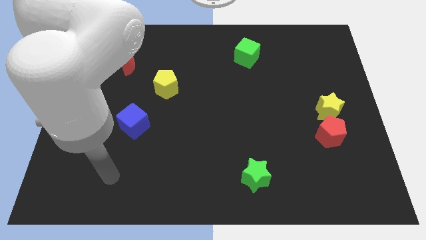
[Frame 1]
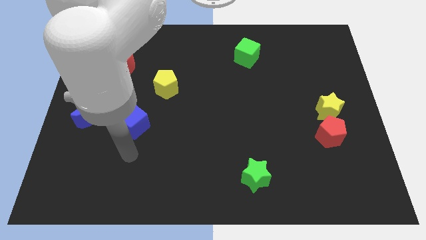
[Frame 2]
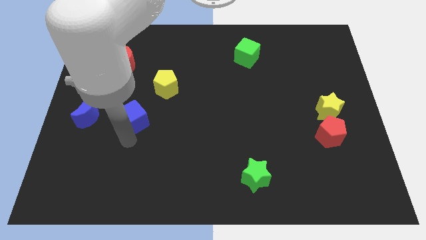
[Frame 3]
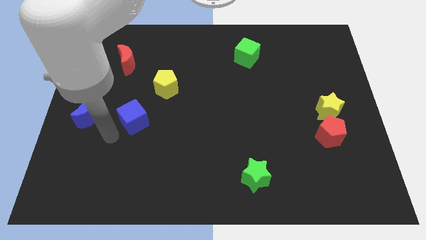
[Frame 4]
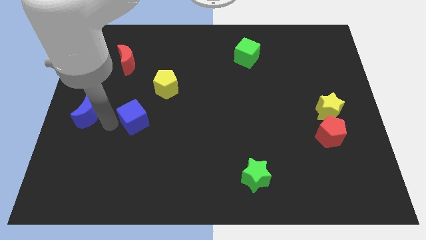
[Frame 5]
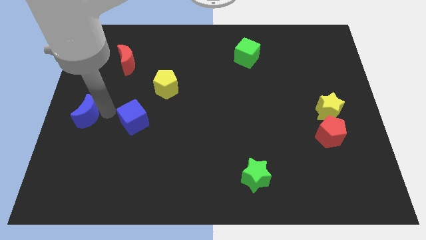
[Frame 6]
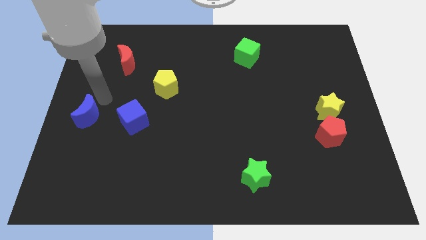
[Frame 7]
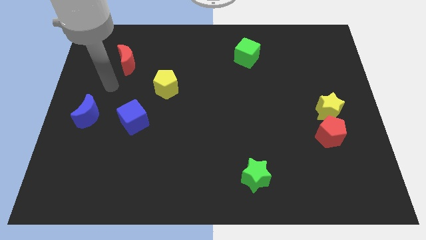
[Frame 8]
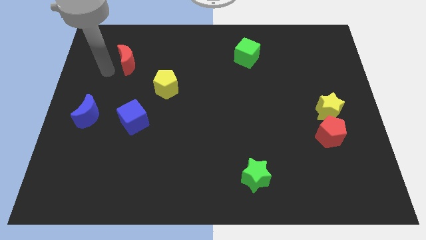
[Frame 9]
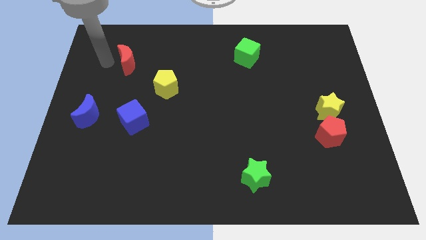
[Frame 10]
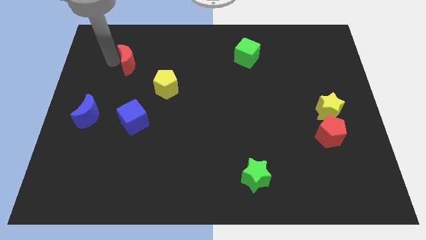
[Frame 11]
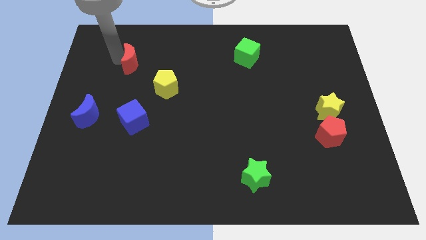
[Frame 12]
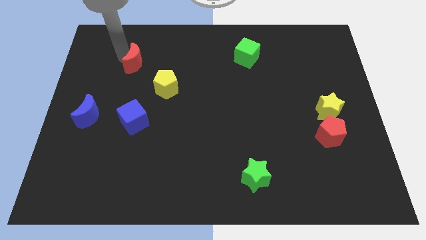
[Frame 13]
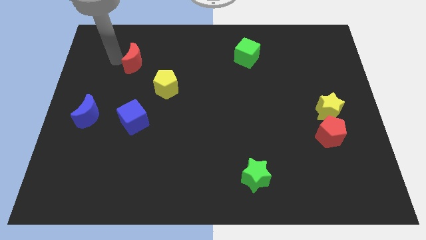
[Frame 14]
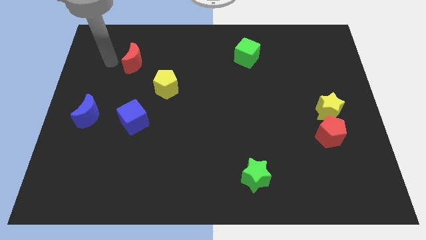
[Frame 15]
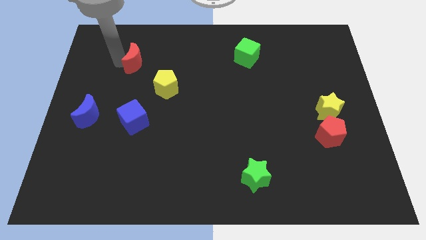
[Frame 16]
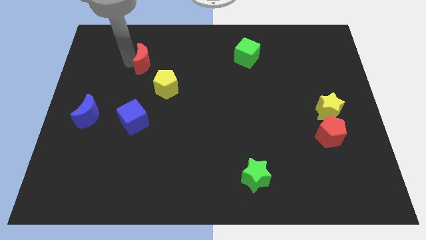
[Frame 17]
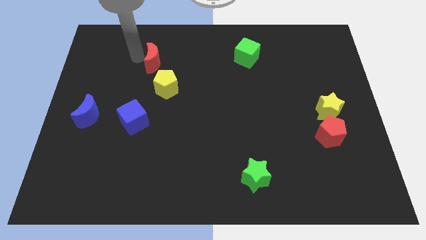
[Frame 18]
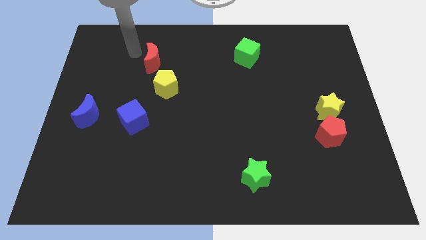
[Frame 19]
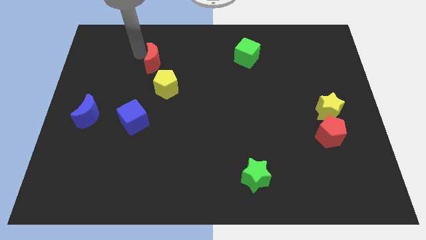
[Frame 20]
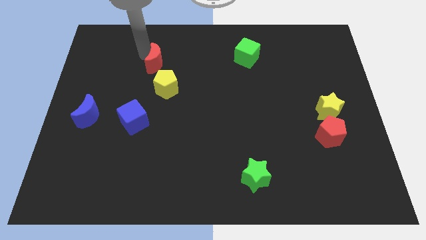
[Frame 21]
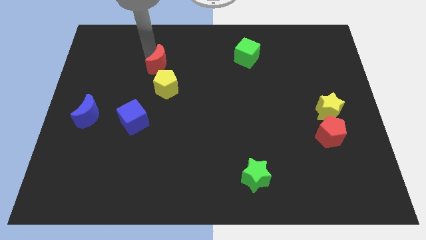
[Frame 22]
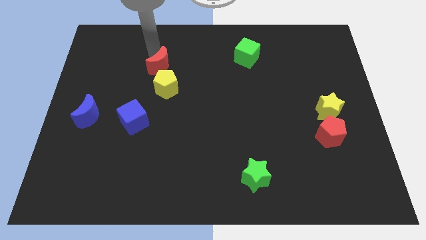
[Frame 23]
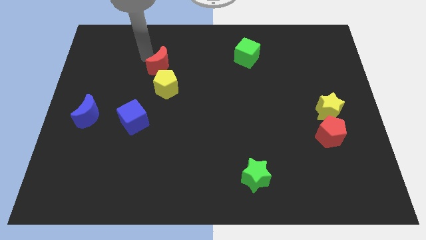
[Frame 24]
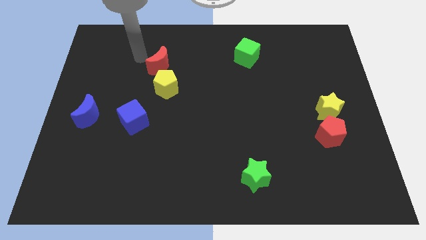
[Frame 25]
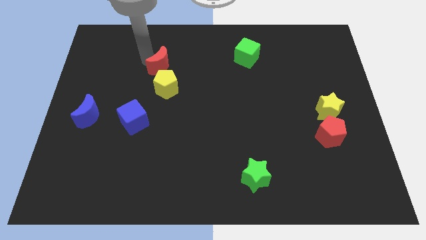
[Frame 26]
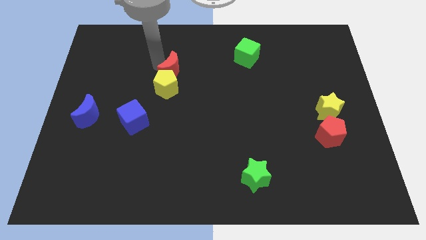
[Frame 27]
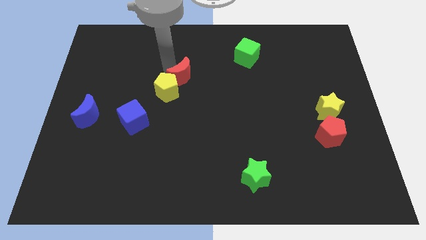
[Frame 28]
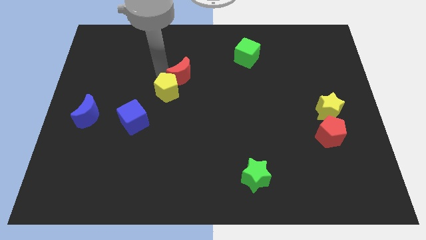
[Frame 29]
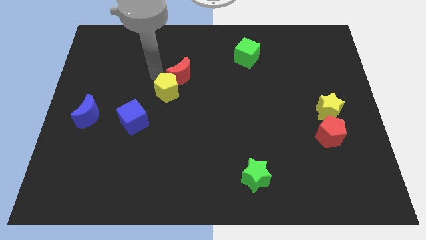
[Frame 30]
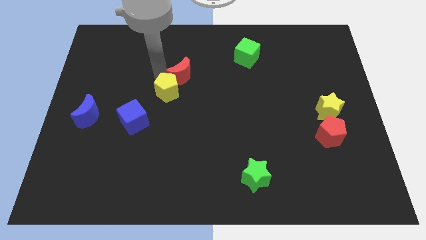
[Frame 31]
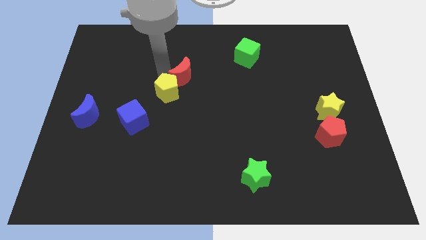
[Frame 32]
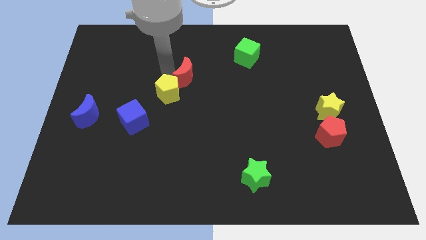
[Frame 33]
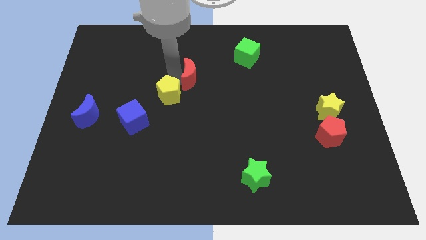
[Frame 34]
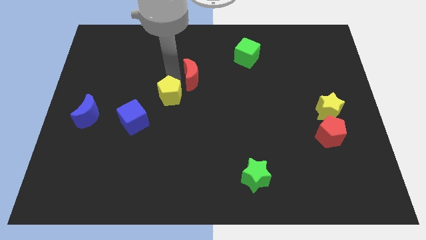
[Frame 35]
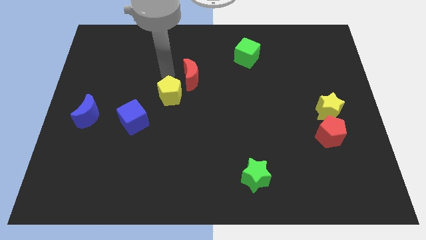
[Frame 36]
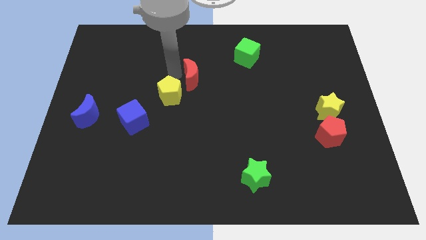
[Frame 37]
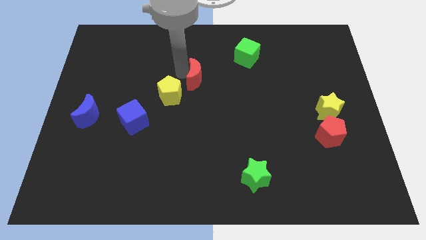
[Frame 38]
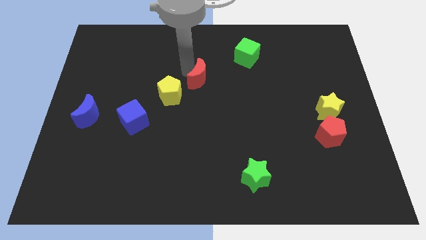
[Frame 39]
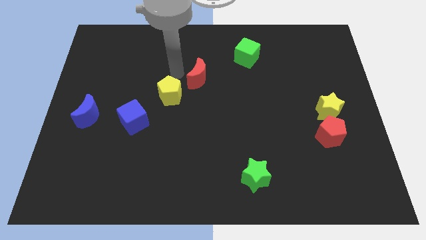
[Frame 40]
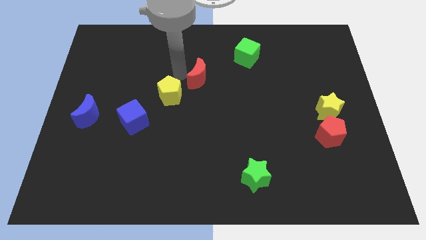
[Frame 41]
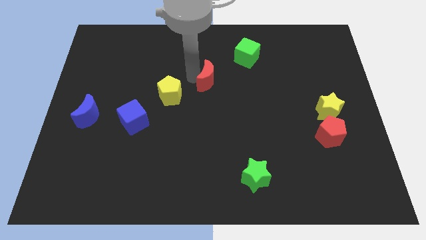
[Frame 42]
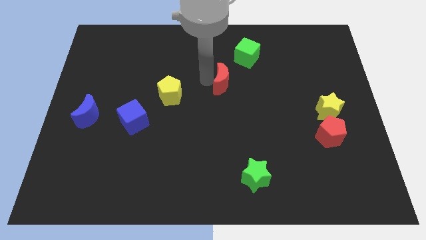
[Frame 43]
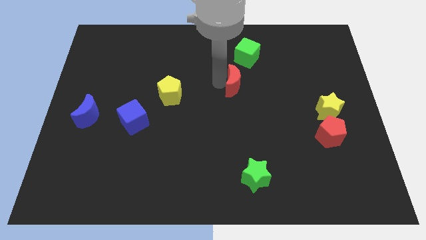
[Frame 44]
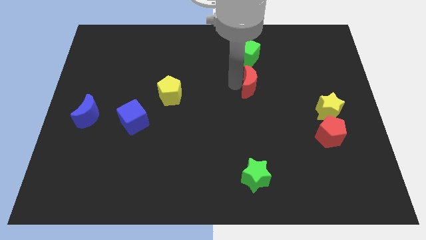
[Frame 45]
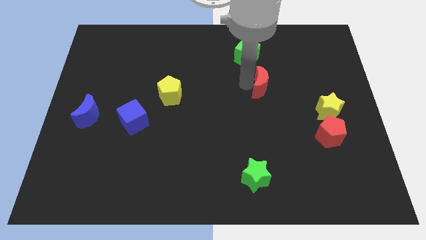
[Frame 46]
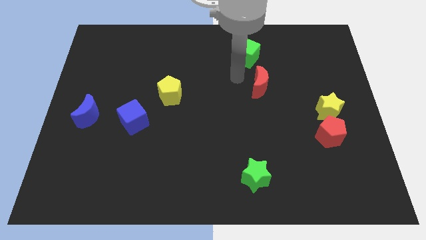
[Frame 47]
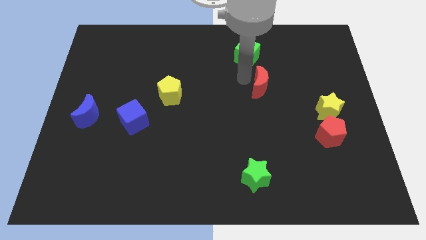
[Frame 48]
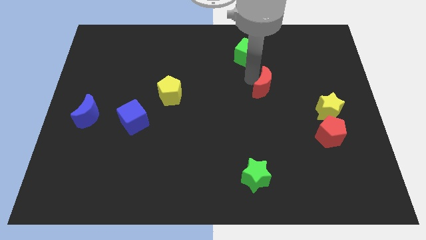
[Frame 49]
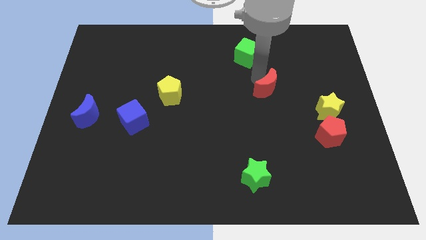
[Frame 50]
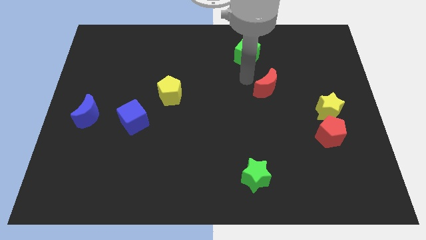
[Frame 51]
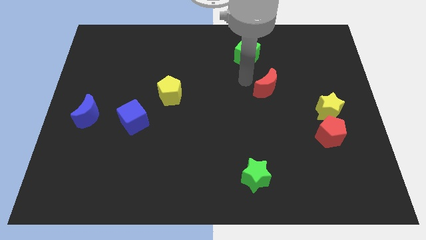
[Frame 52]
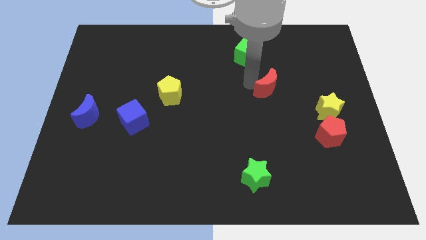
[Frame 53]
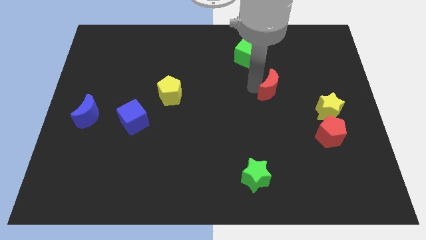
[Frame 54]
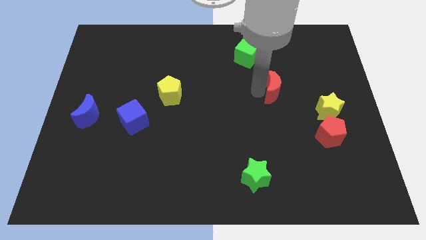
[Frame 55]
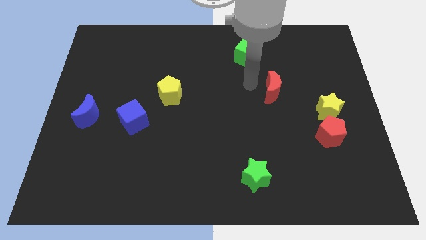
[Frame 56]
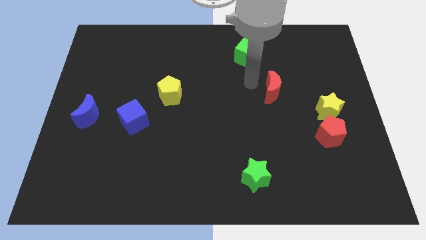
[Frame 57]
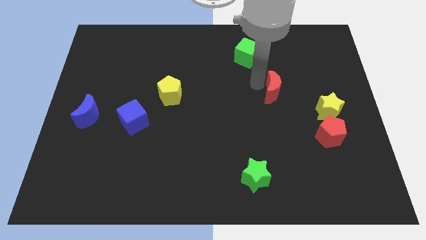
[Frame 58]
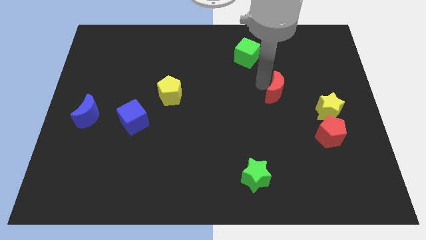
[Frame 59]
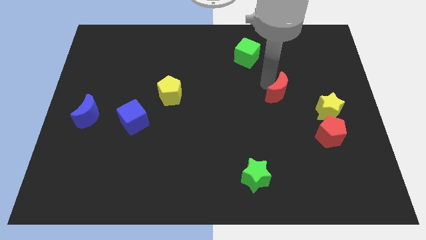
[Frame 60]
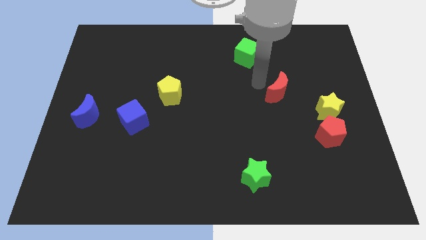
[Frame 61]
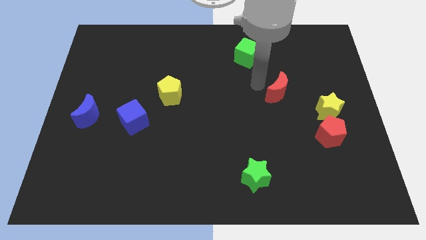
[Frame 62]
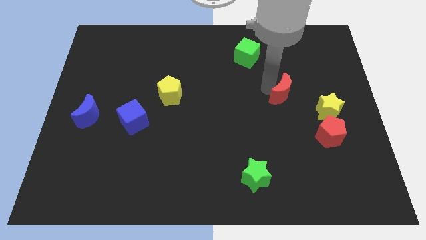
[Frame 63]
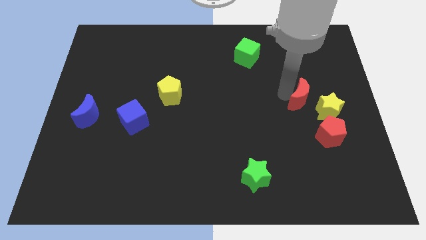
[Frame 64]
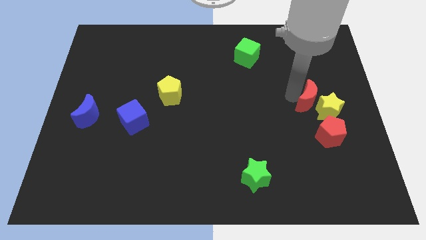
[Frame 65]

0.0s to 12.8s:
put the red moon next to the yellow star
